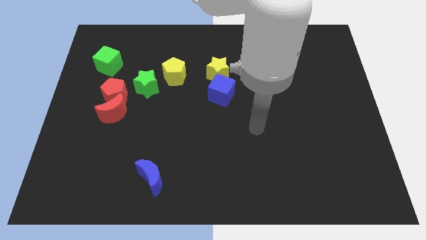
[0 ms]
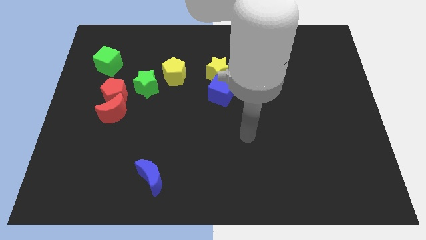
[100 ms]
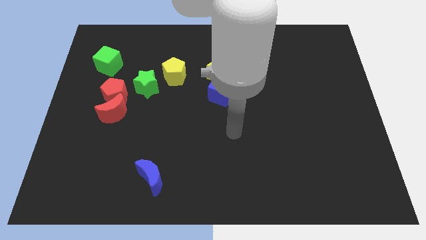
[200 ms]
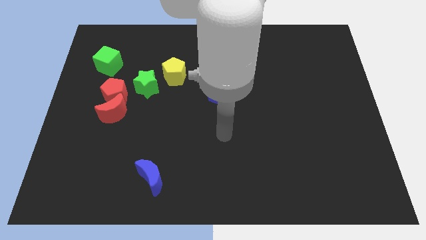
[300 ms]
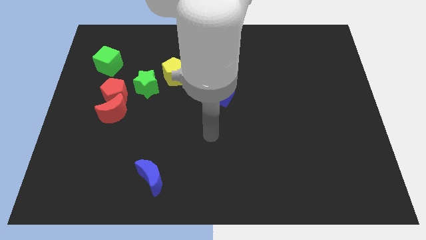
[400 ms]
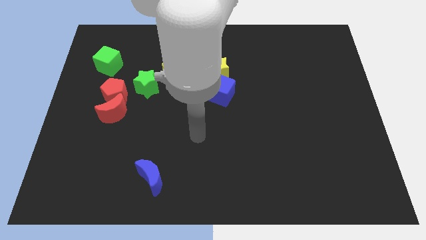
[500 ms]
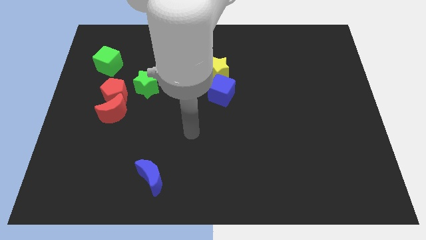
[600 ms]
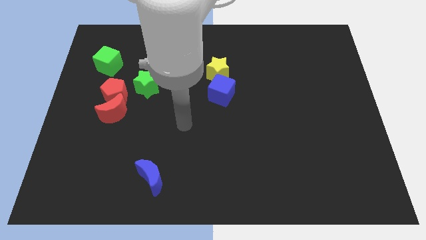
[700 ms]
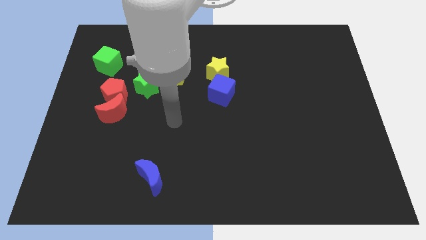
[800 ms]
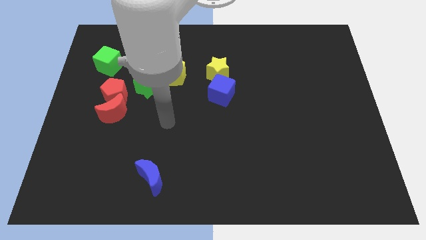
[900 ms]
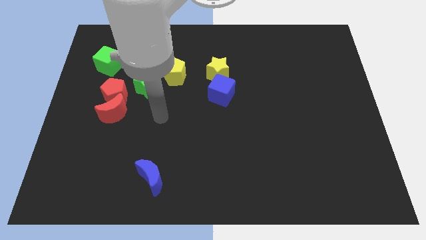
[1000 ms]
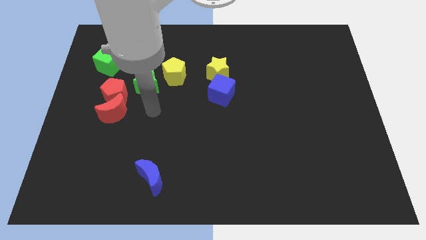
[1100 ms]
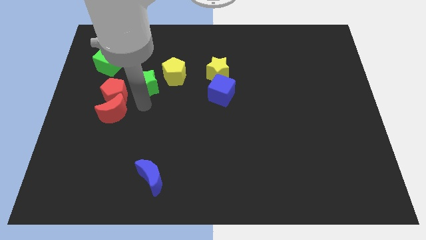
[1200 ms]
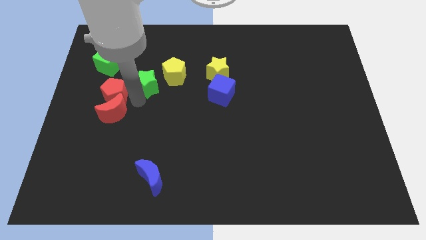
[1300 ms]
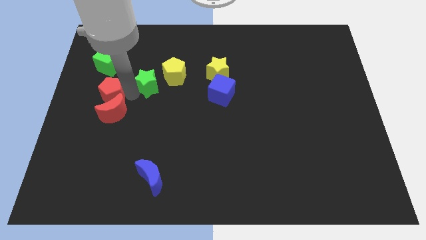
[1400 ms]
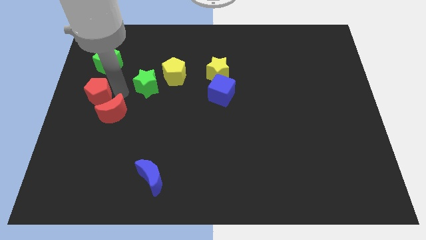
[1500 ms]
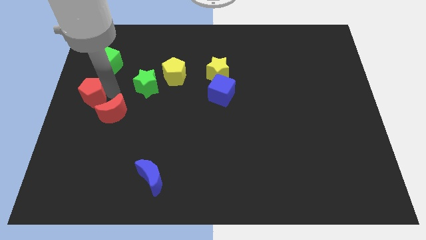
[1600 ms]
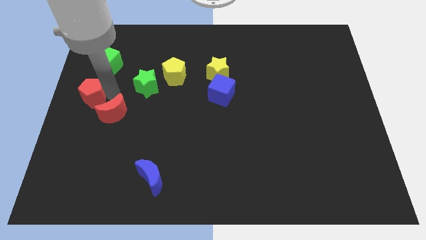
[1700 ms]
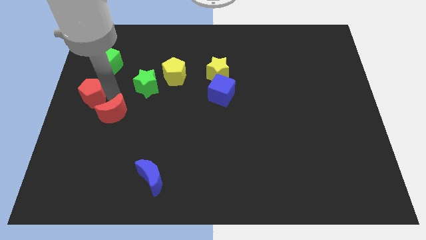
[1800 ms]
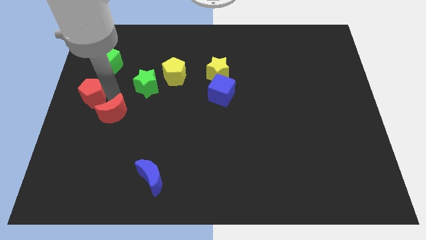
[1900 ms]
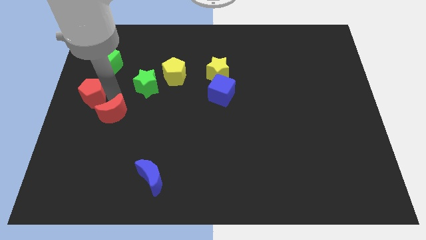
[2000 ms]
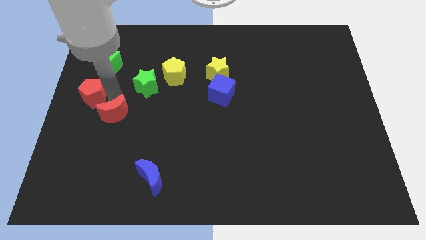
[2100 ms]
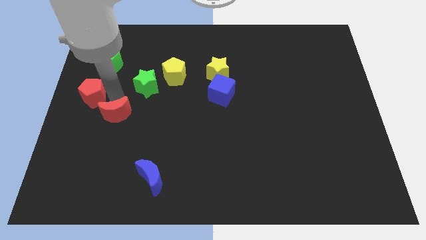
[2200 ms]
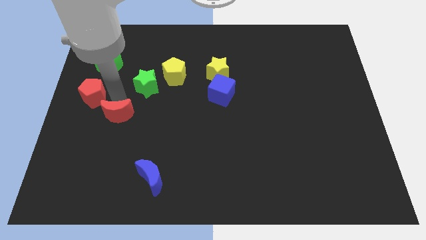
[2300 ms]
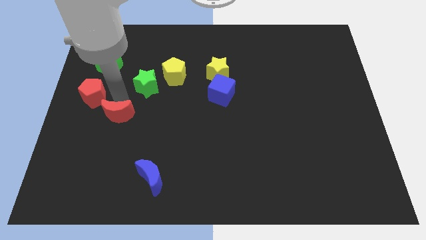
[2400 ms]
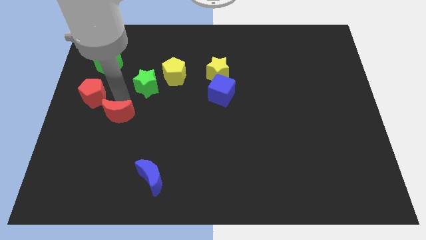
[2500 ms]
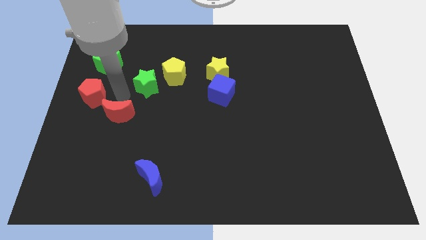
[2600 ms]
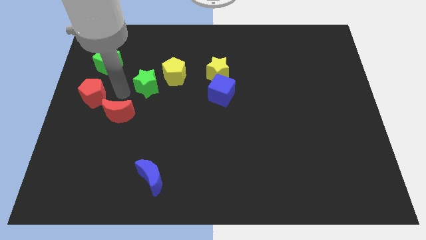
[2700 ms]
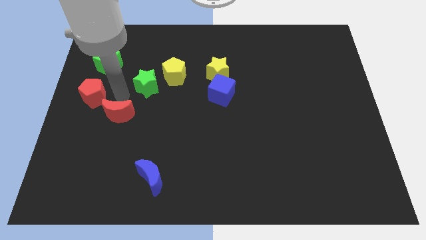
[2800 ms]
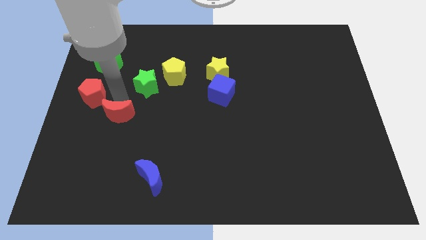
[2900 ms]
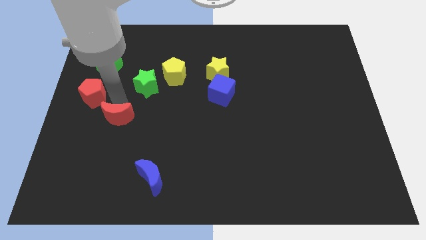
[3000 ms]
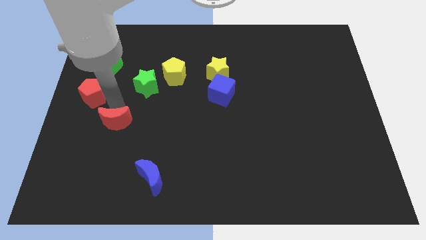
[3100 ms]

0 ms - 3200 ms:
separate the red moon from the red pentagon

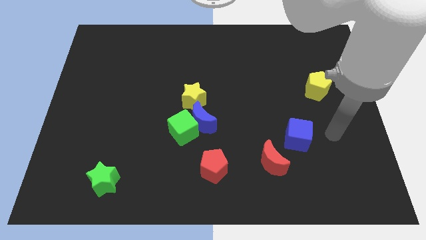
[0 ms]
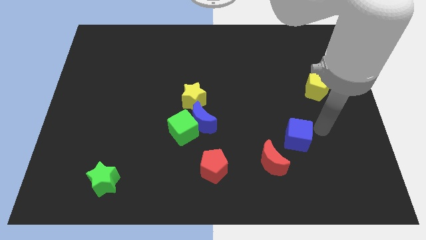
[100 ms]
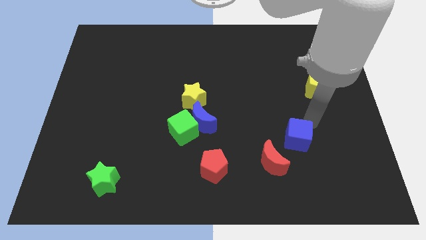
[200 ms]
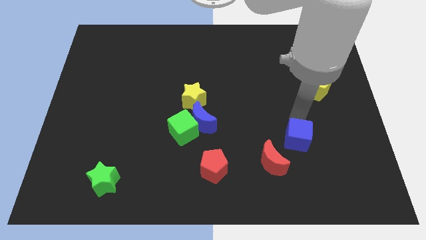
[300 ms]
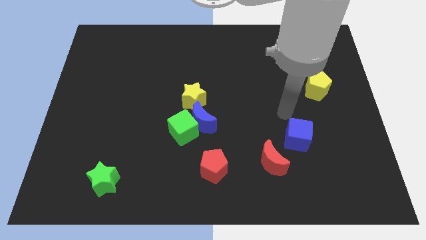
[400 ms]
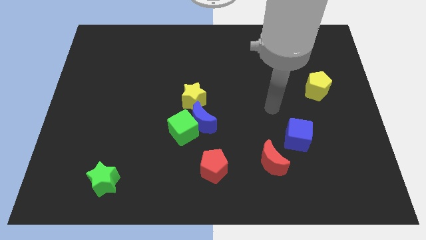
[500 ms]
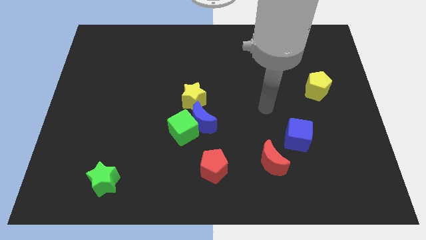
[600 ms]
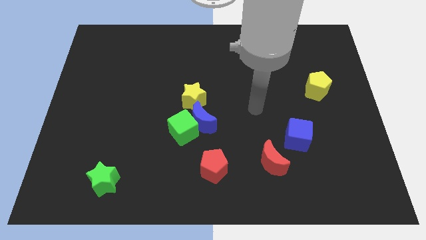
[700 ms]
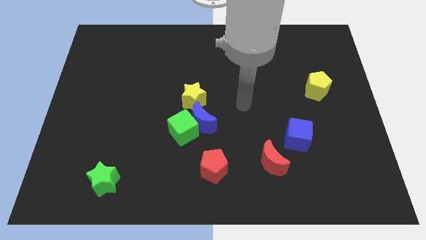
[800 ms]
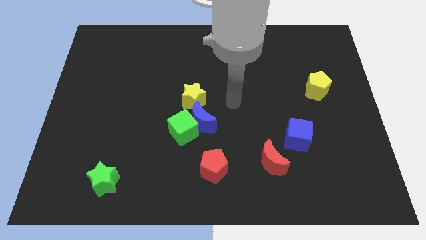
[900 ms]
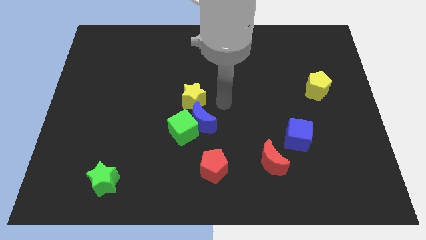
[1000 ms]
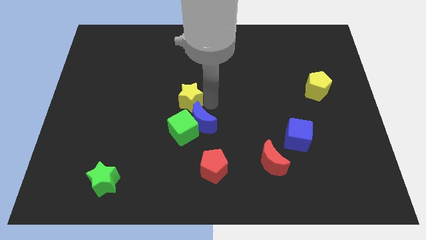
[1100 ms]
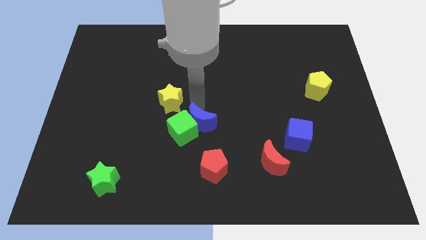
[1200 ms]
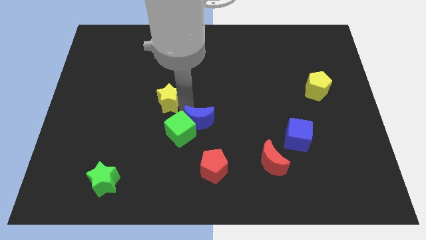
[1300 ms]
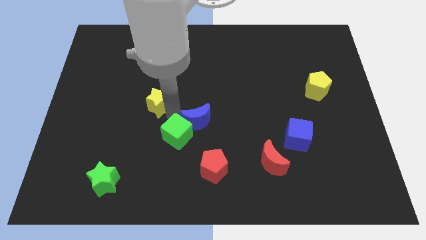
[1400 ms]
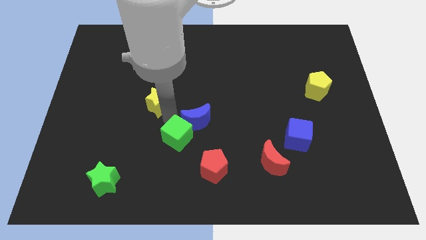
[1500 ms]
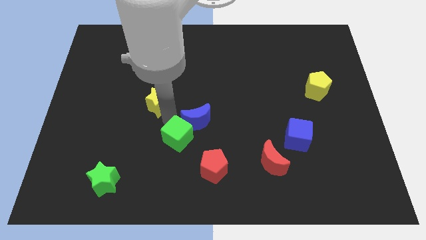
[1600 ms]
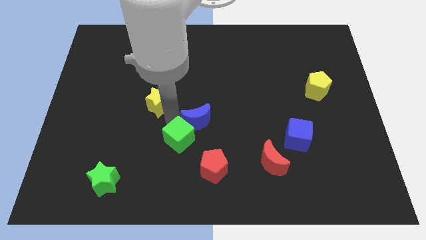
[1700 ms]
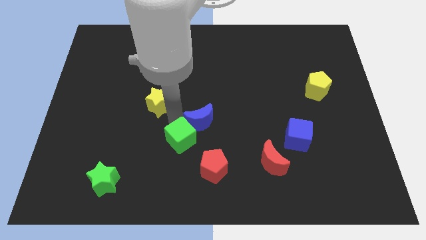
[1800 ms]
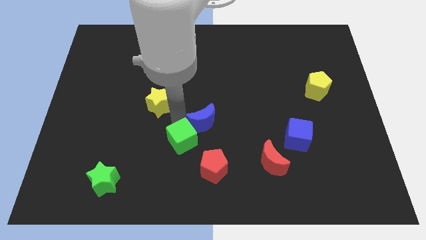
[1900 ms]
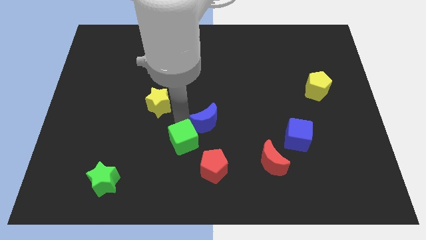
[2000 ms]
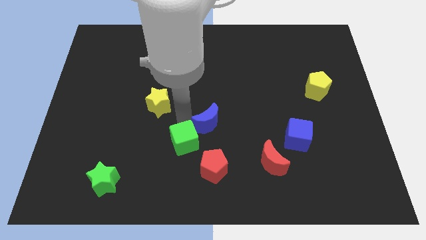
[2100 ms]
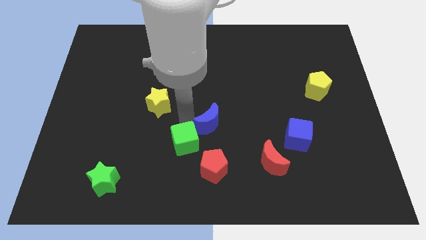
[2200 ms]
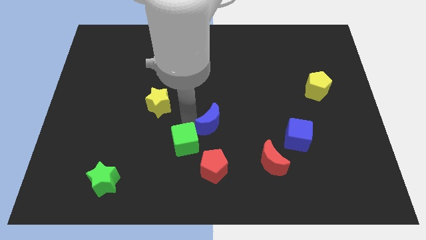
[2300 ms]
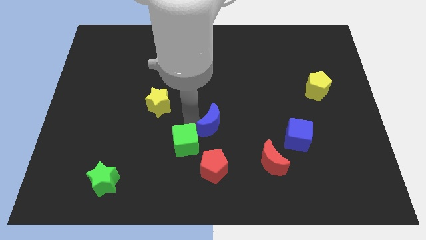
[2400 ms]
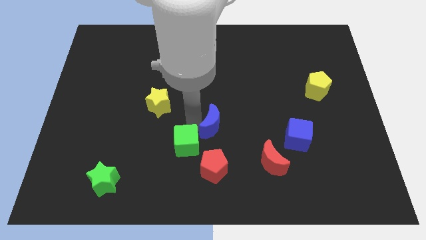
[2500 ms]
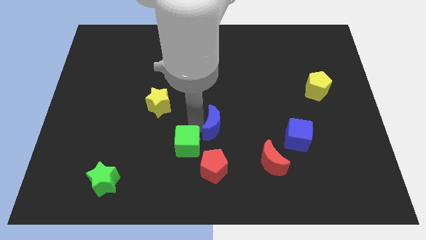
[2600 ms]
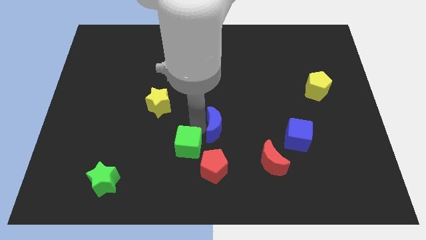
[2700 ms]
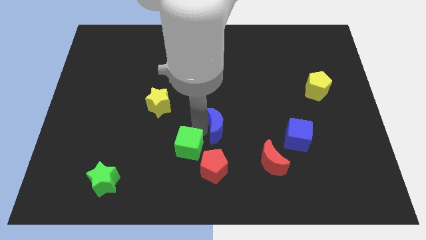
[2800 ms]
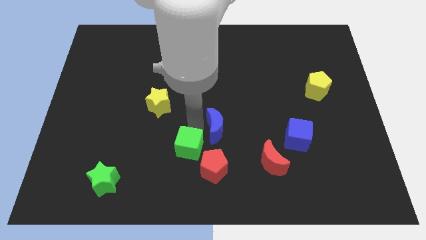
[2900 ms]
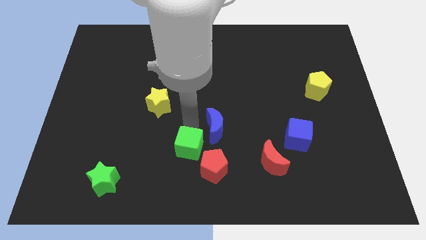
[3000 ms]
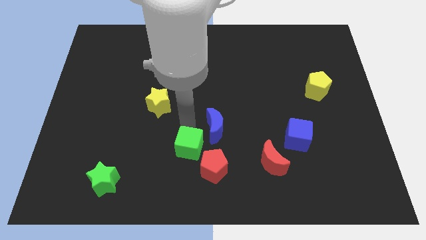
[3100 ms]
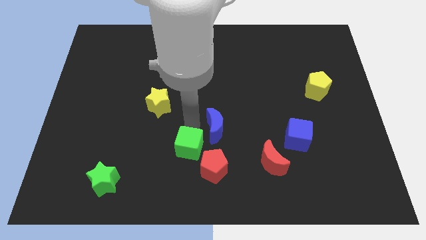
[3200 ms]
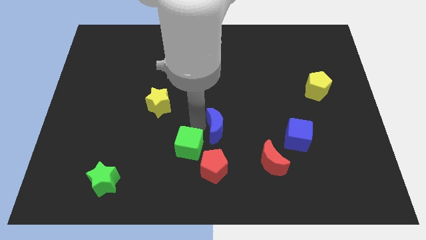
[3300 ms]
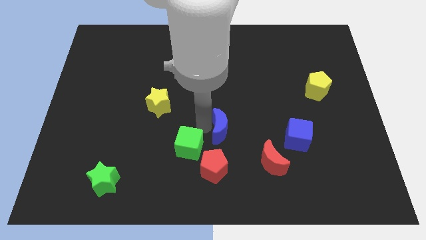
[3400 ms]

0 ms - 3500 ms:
pull the blue moon apart from the green cube and yellow star

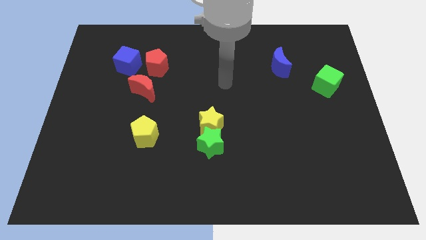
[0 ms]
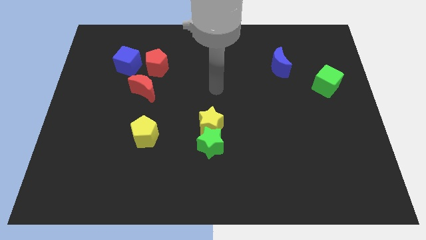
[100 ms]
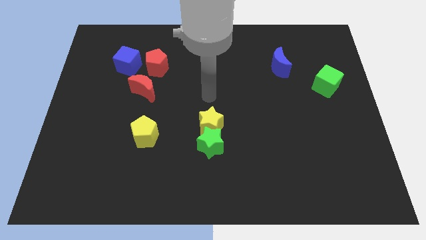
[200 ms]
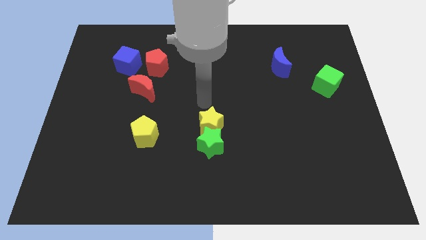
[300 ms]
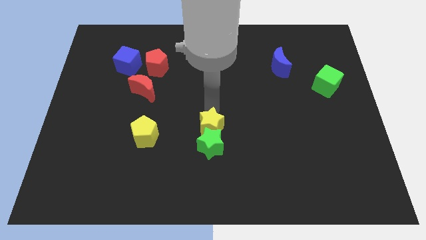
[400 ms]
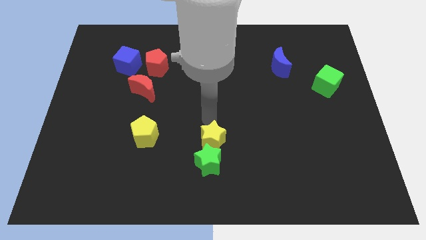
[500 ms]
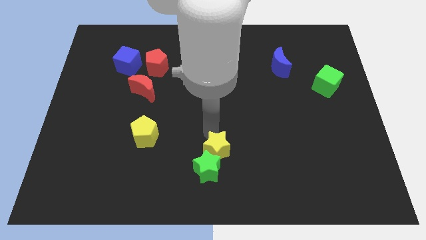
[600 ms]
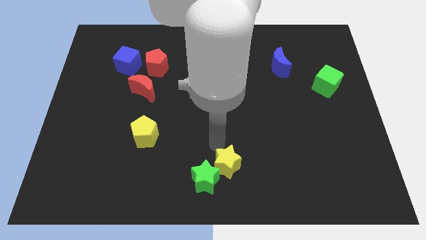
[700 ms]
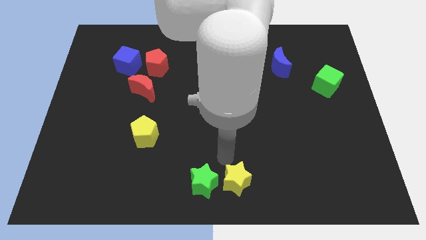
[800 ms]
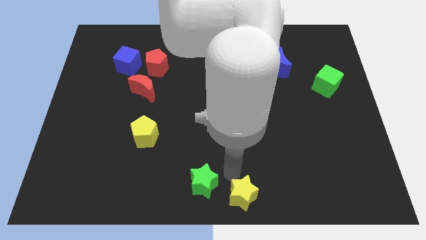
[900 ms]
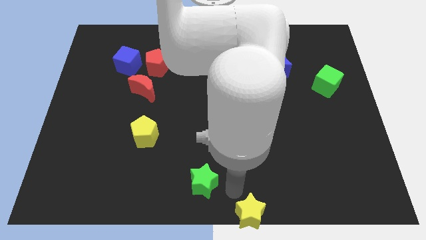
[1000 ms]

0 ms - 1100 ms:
pull the green star apart from the yellow star

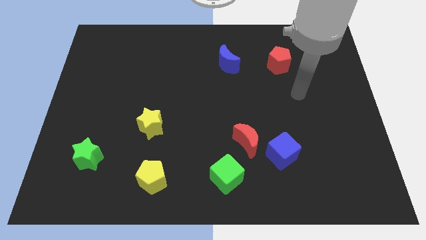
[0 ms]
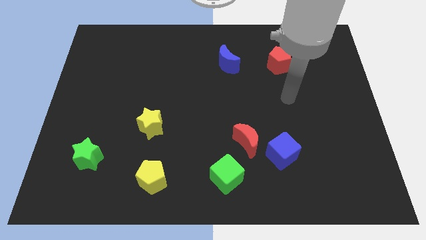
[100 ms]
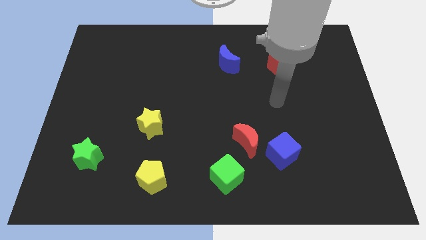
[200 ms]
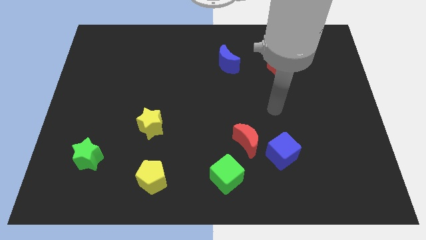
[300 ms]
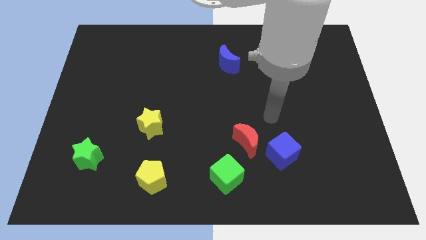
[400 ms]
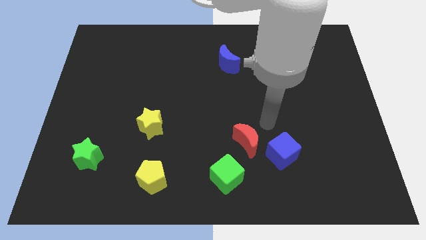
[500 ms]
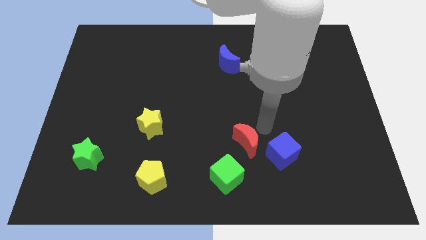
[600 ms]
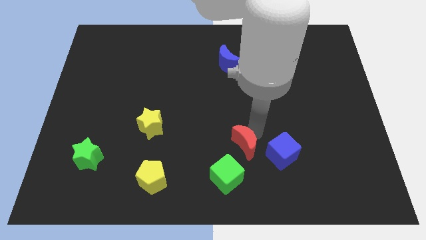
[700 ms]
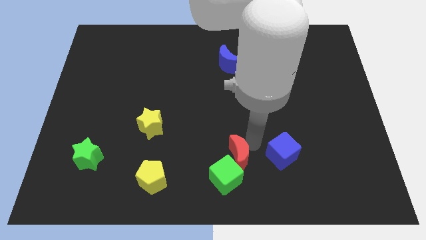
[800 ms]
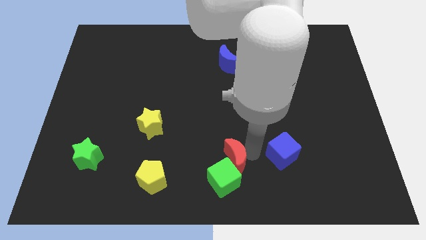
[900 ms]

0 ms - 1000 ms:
pull the blue cube apart from the red moon

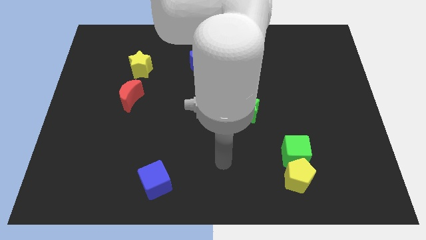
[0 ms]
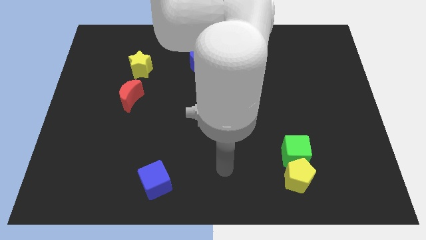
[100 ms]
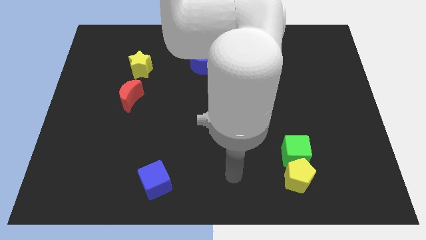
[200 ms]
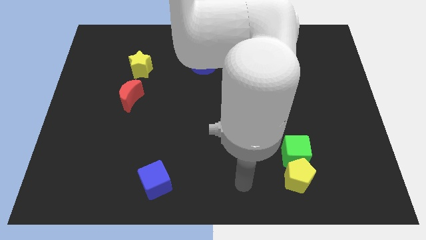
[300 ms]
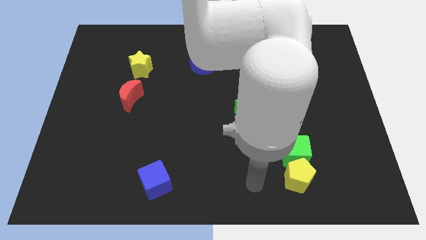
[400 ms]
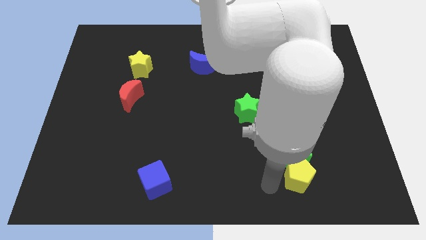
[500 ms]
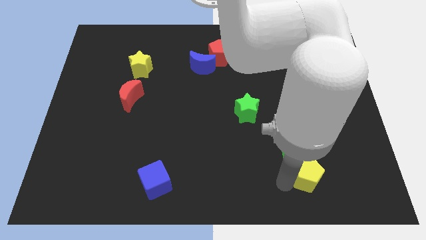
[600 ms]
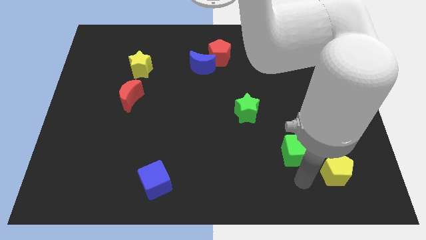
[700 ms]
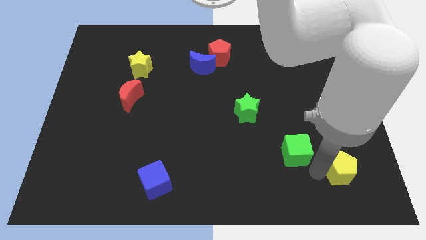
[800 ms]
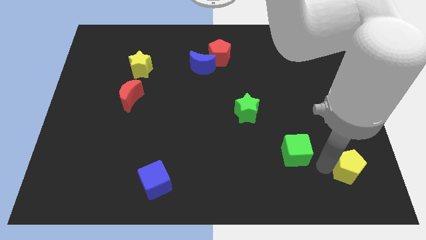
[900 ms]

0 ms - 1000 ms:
move the green cube away from the yellow pentagon
